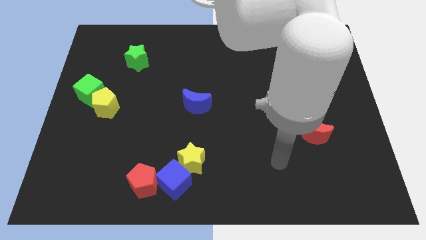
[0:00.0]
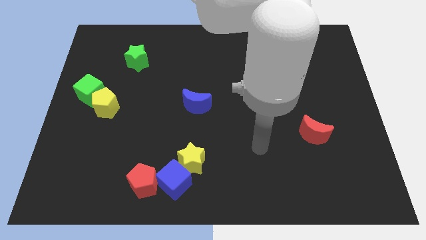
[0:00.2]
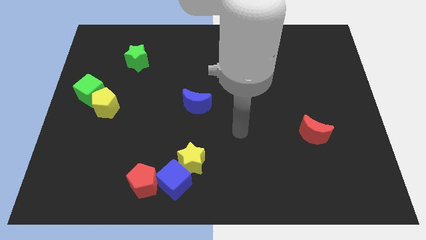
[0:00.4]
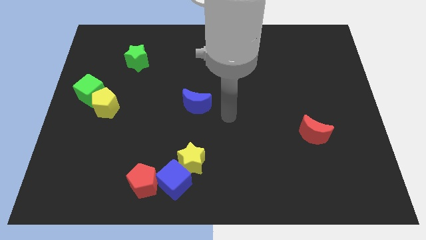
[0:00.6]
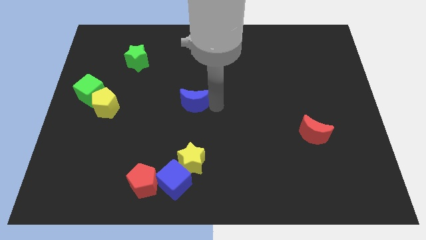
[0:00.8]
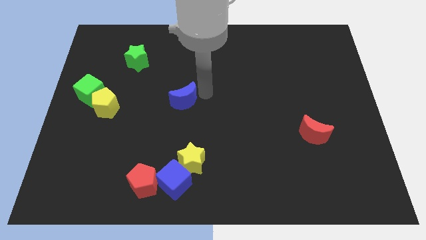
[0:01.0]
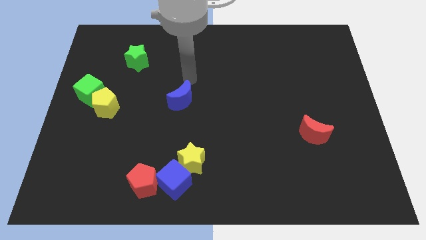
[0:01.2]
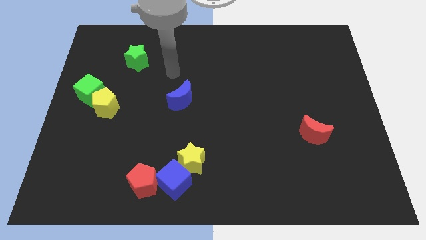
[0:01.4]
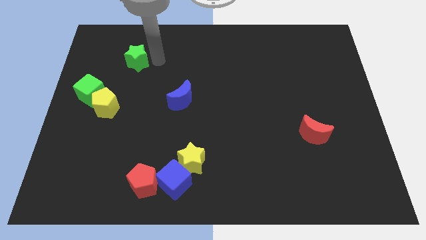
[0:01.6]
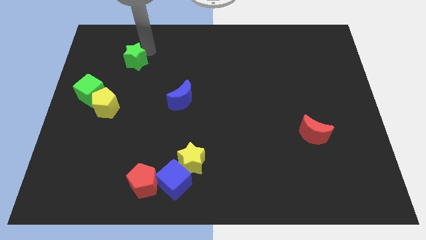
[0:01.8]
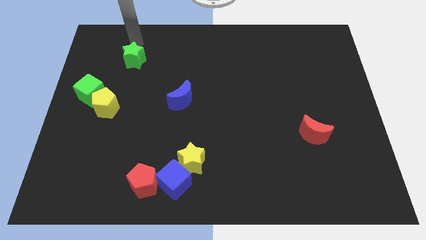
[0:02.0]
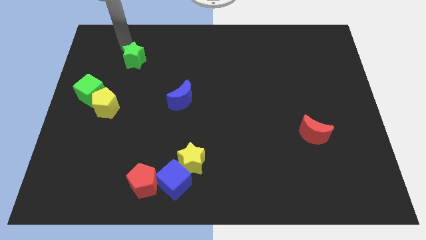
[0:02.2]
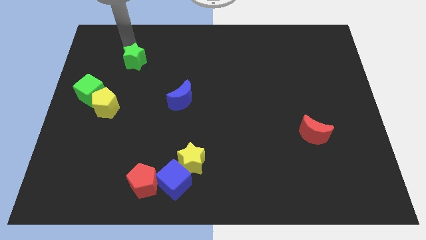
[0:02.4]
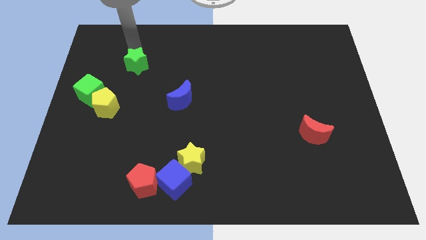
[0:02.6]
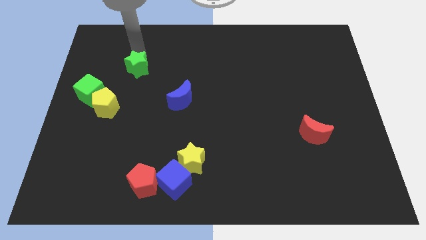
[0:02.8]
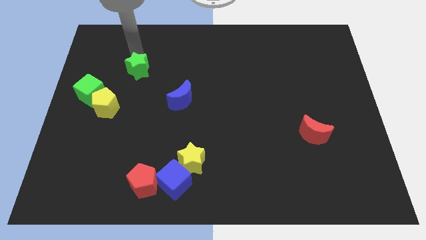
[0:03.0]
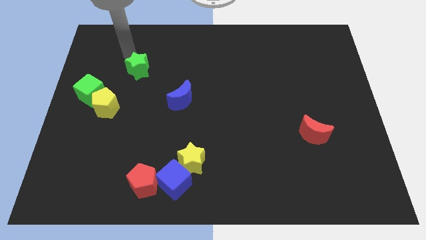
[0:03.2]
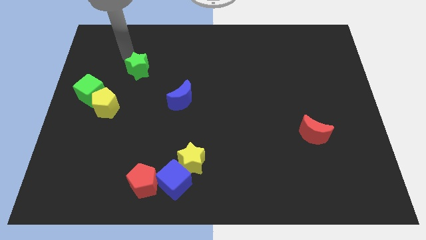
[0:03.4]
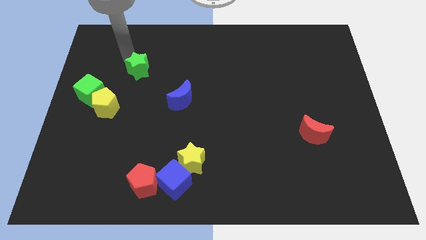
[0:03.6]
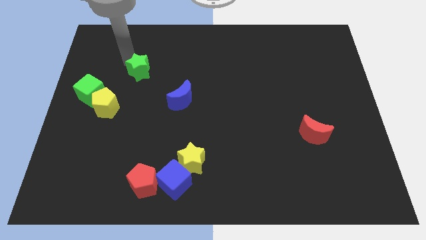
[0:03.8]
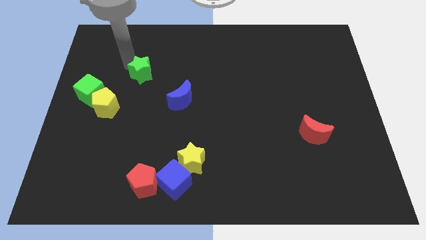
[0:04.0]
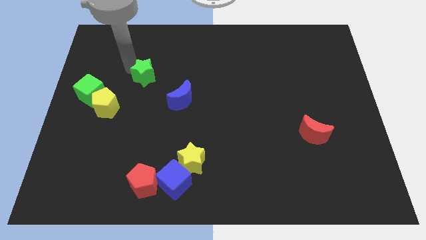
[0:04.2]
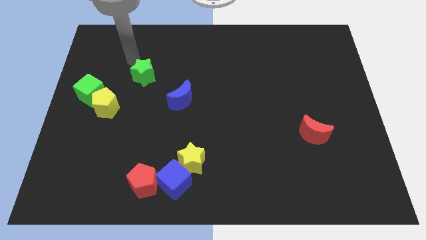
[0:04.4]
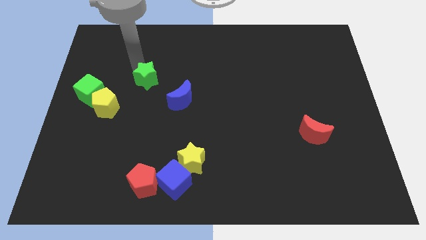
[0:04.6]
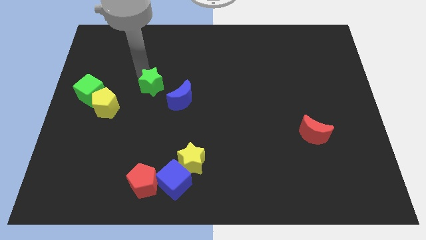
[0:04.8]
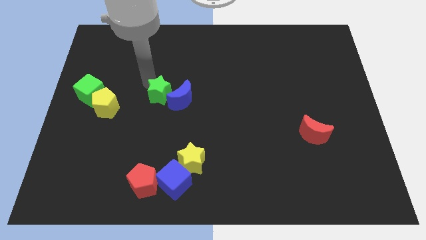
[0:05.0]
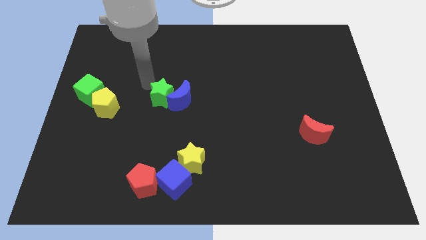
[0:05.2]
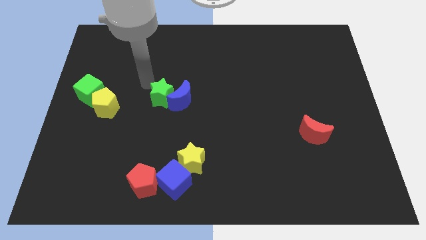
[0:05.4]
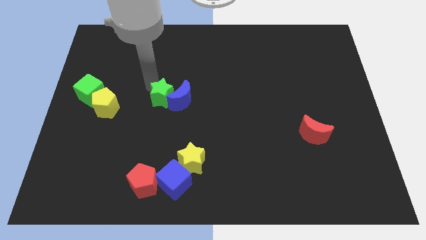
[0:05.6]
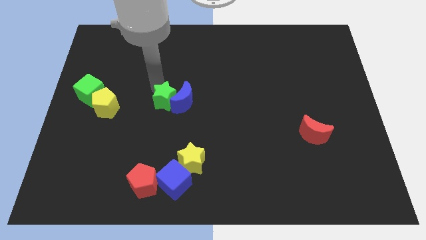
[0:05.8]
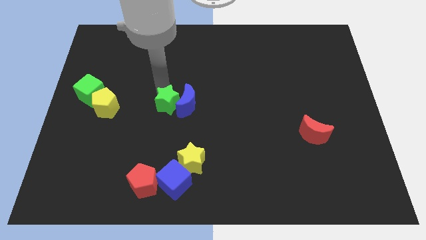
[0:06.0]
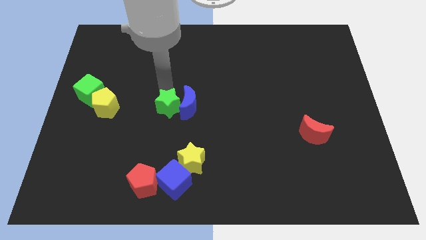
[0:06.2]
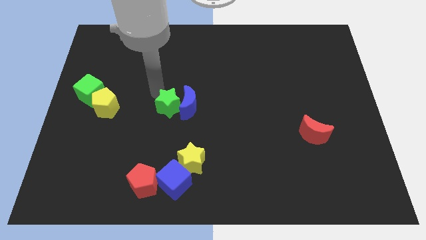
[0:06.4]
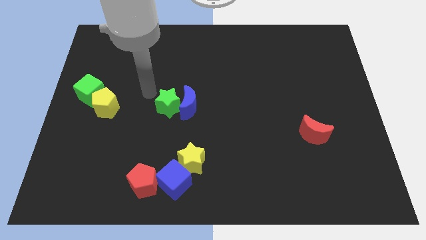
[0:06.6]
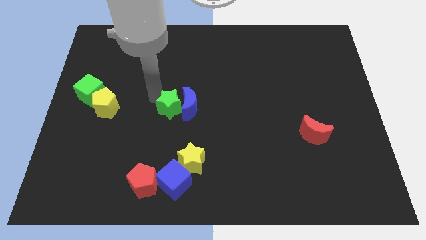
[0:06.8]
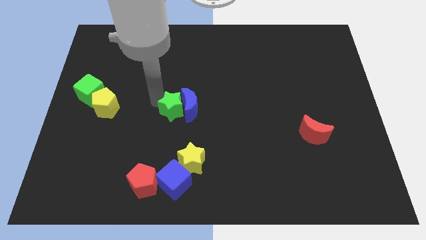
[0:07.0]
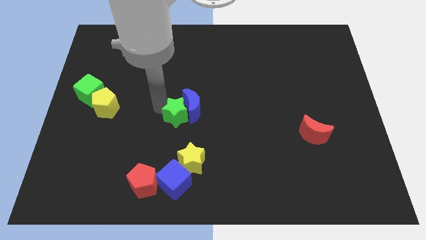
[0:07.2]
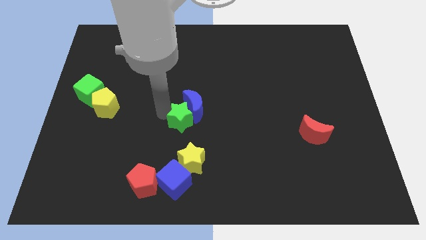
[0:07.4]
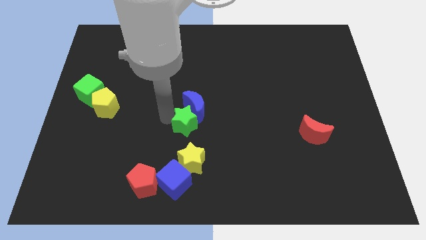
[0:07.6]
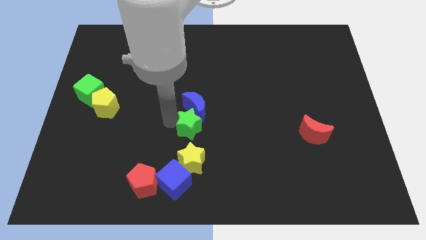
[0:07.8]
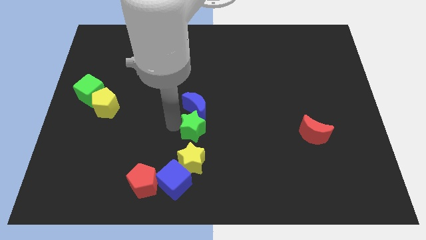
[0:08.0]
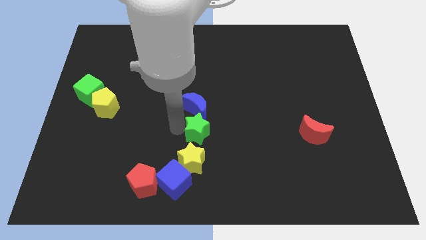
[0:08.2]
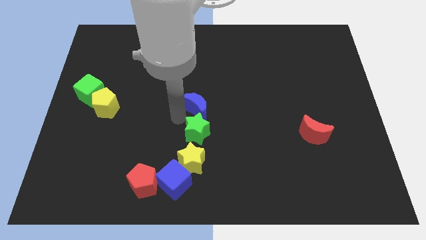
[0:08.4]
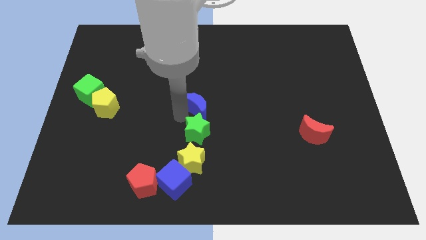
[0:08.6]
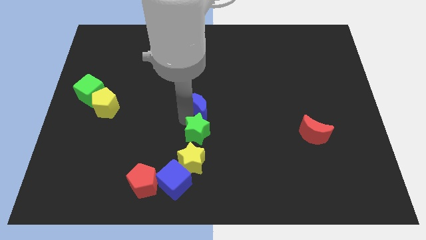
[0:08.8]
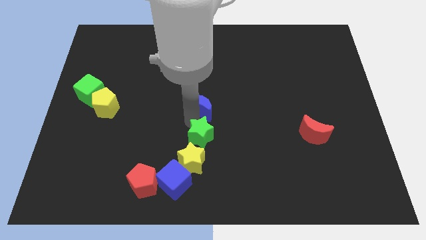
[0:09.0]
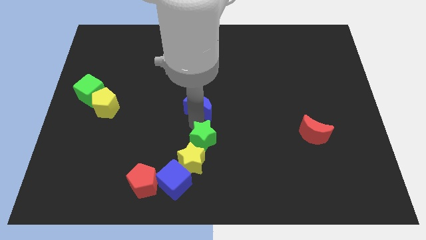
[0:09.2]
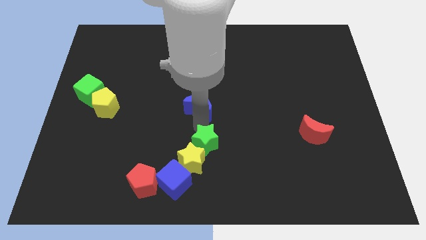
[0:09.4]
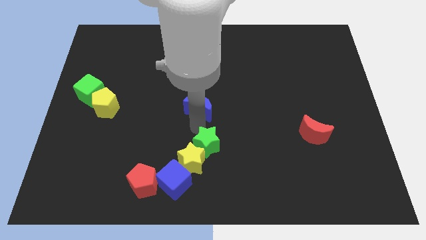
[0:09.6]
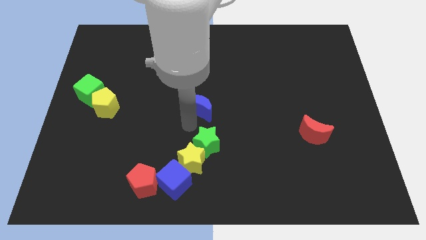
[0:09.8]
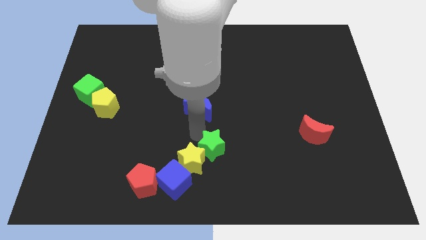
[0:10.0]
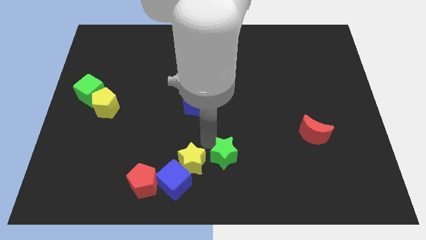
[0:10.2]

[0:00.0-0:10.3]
move the green star to the bottom side

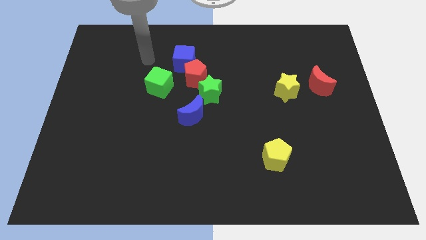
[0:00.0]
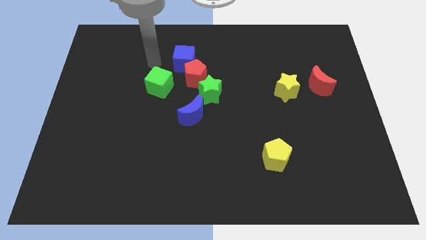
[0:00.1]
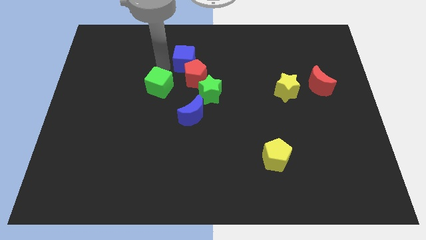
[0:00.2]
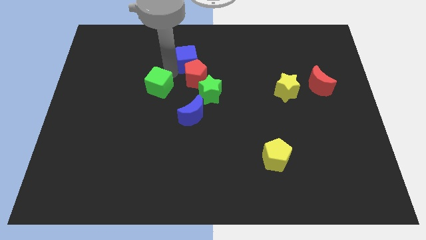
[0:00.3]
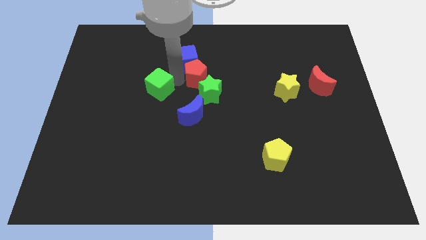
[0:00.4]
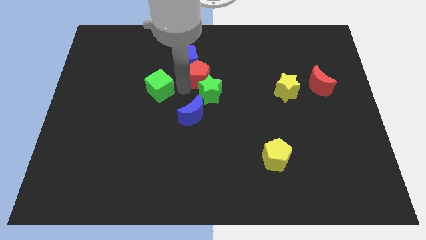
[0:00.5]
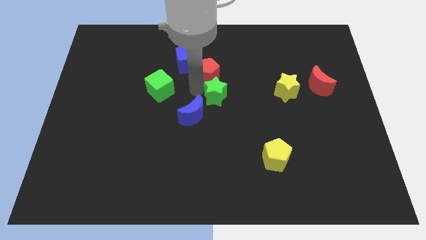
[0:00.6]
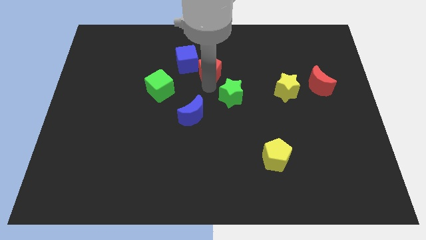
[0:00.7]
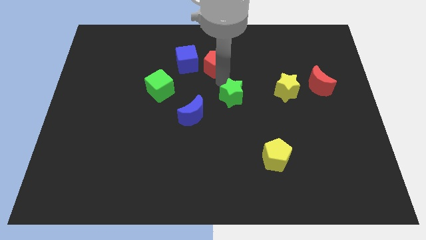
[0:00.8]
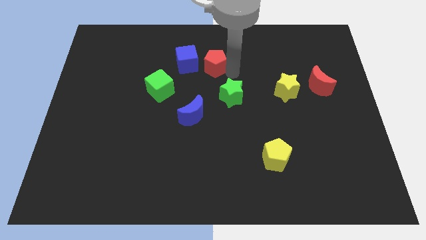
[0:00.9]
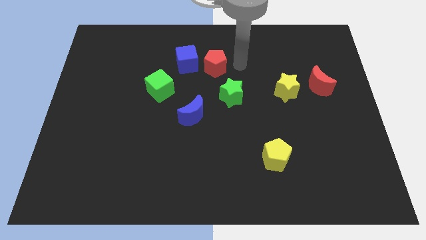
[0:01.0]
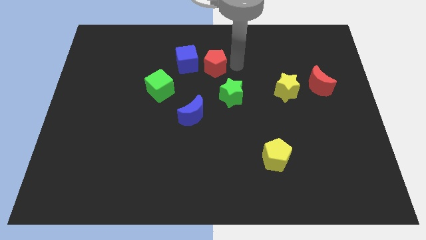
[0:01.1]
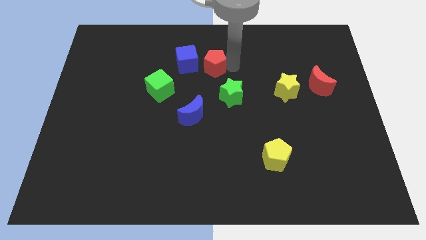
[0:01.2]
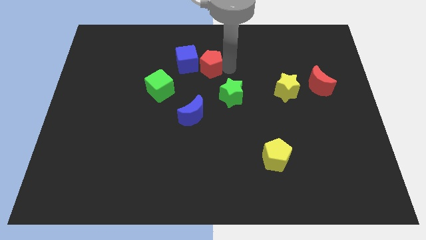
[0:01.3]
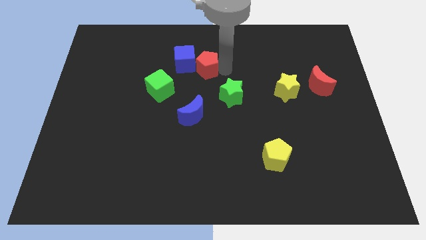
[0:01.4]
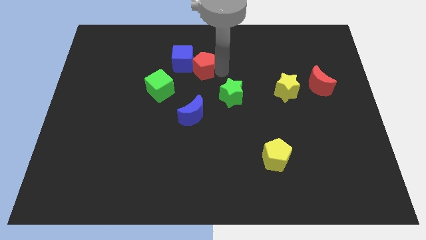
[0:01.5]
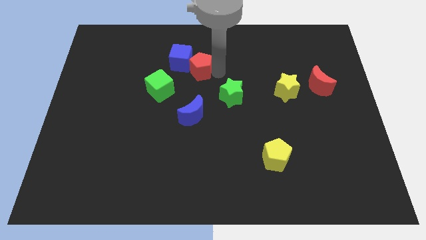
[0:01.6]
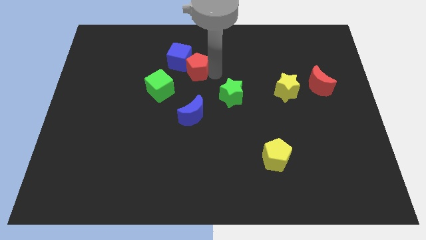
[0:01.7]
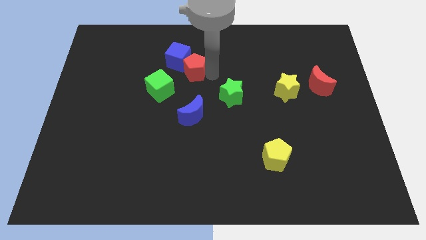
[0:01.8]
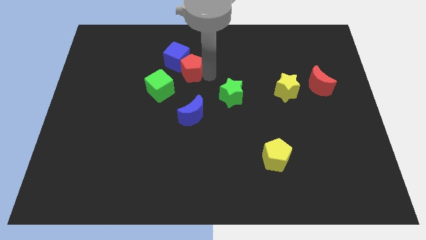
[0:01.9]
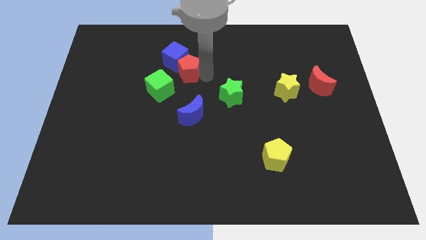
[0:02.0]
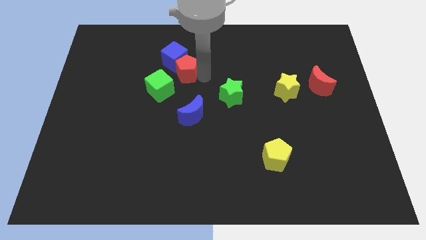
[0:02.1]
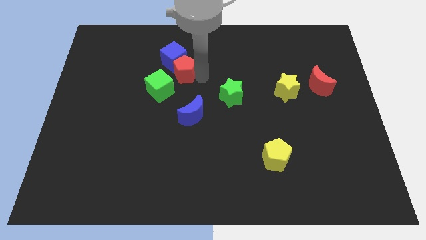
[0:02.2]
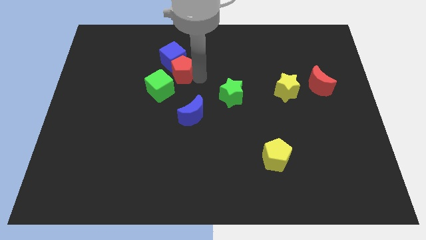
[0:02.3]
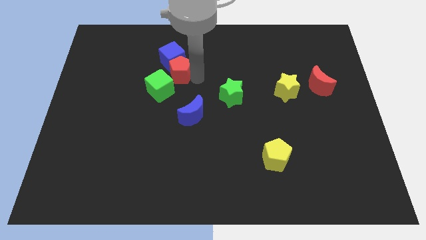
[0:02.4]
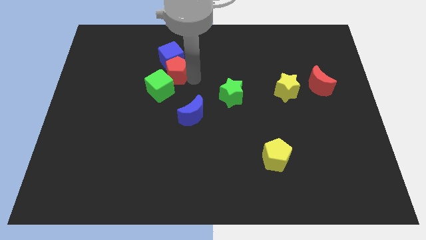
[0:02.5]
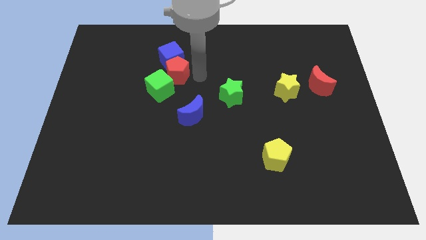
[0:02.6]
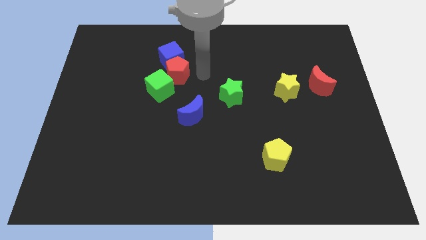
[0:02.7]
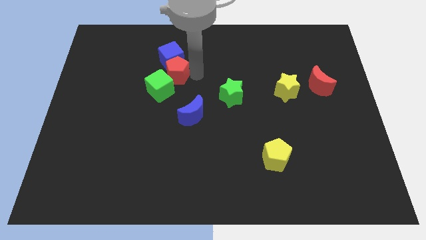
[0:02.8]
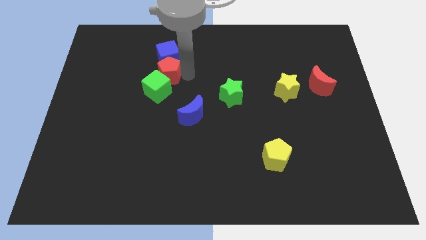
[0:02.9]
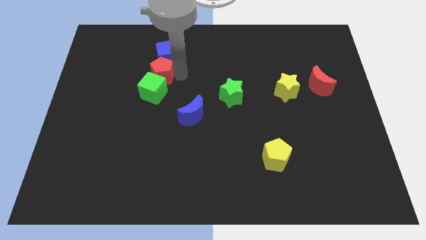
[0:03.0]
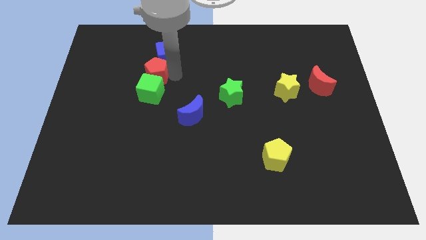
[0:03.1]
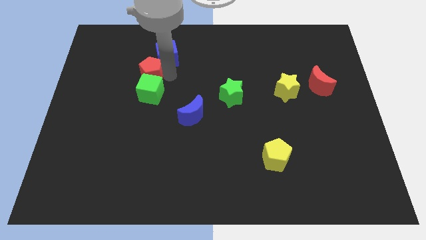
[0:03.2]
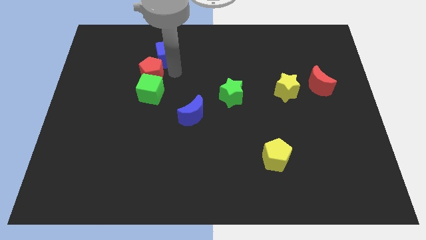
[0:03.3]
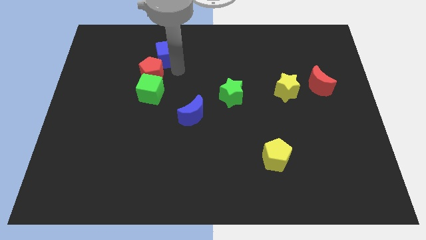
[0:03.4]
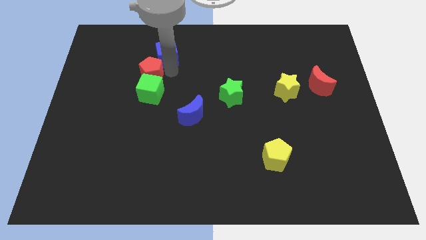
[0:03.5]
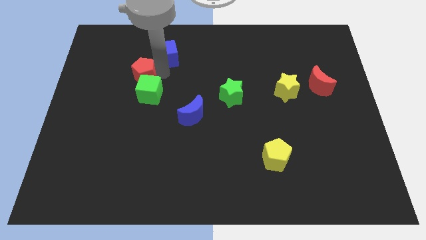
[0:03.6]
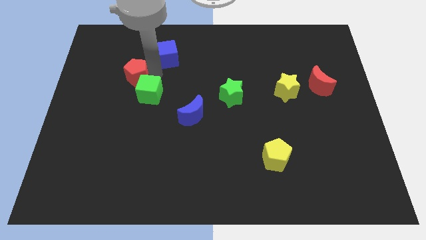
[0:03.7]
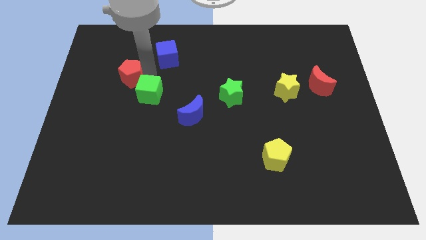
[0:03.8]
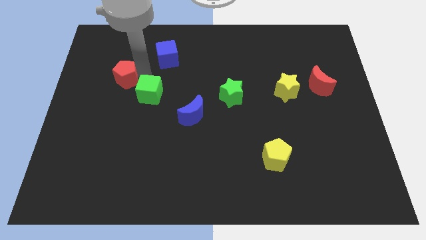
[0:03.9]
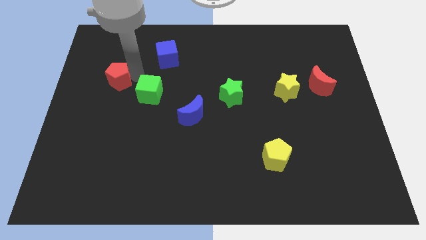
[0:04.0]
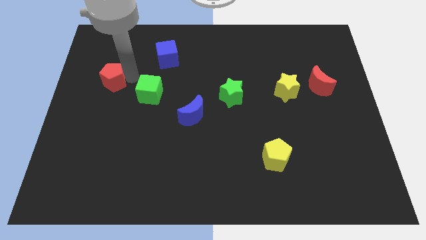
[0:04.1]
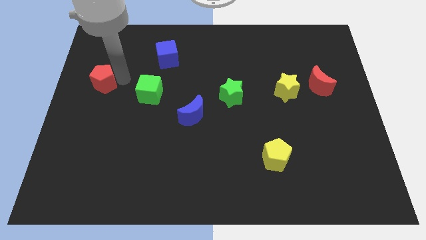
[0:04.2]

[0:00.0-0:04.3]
put the red pentagon to the left side
